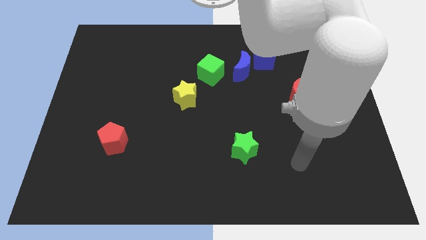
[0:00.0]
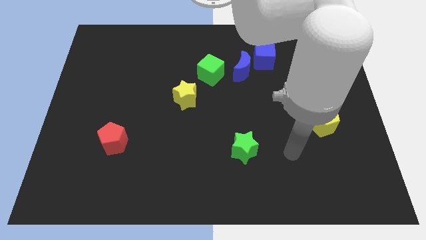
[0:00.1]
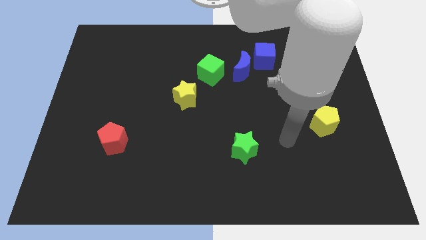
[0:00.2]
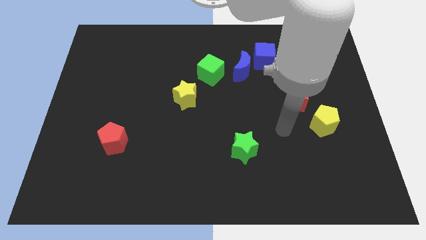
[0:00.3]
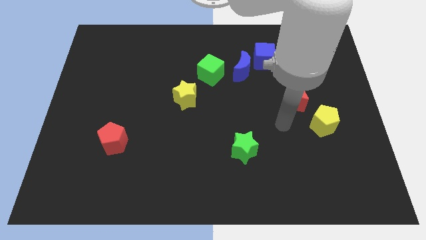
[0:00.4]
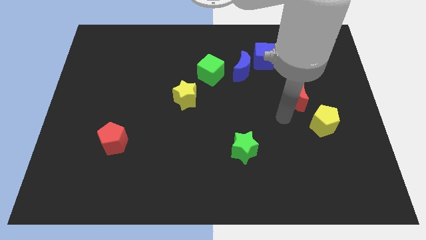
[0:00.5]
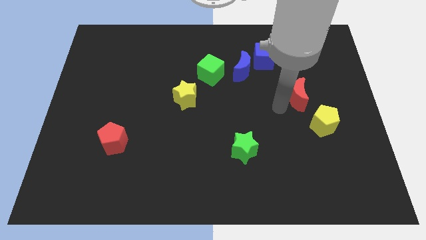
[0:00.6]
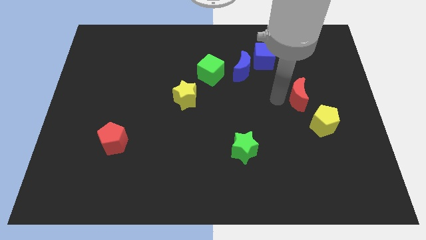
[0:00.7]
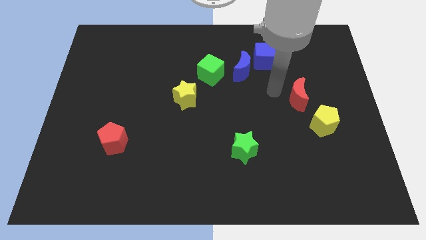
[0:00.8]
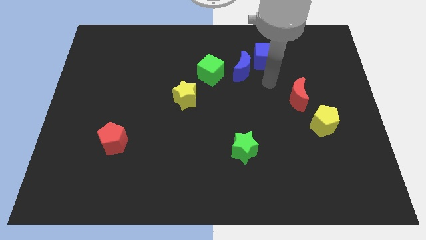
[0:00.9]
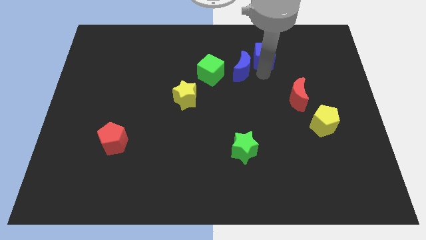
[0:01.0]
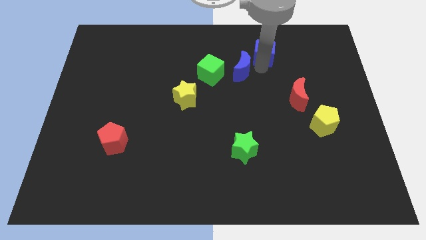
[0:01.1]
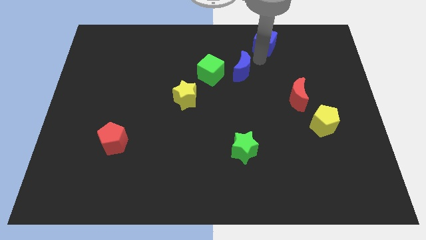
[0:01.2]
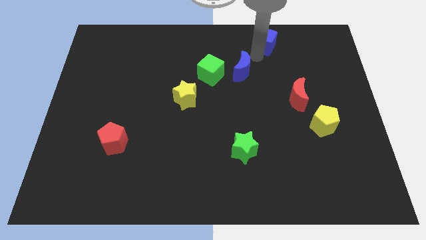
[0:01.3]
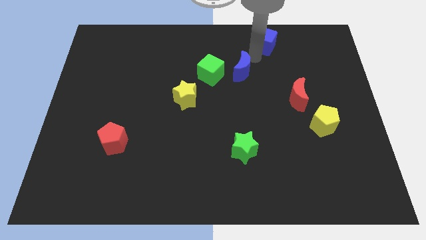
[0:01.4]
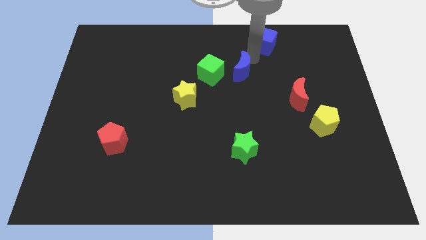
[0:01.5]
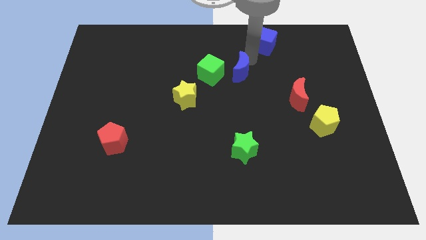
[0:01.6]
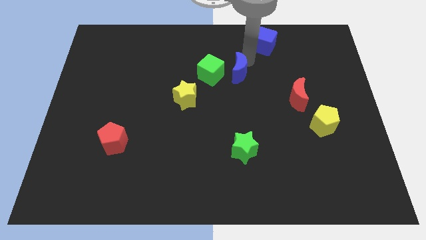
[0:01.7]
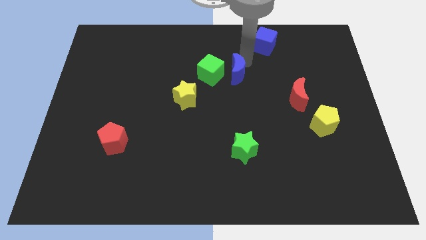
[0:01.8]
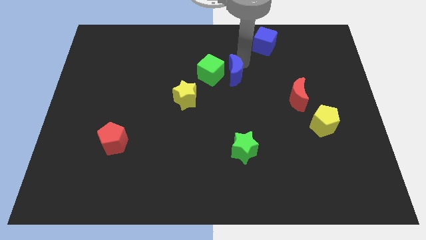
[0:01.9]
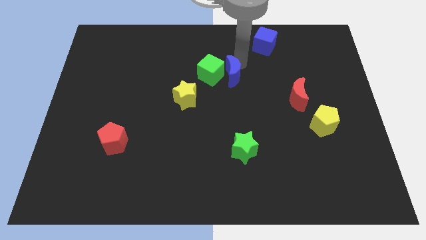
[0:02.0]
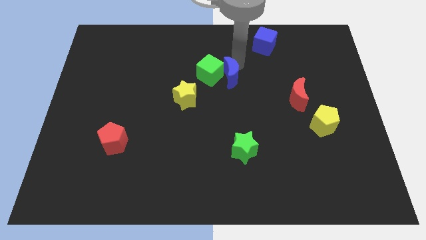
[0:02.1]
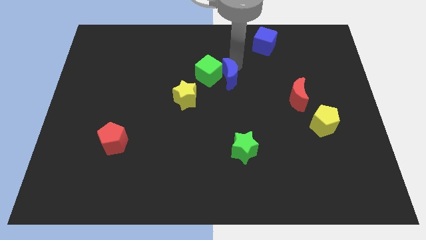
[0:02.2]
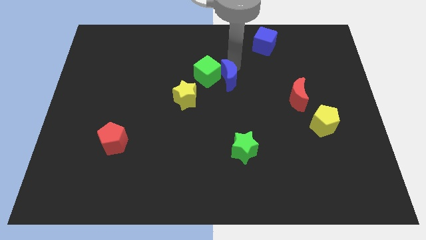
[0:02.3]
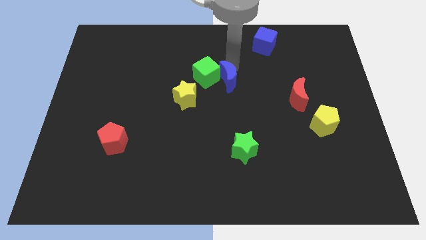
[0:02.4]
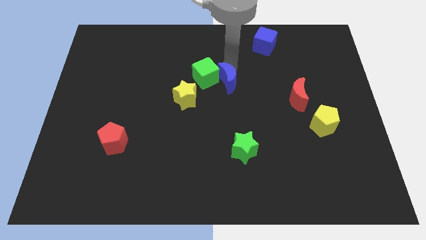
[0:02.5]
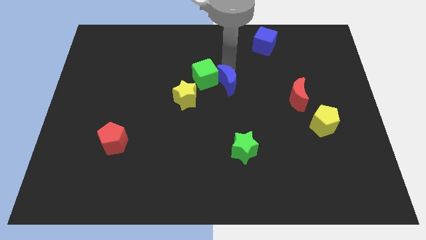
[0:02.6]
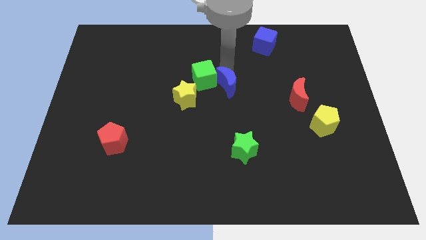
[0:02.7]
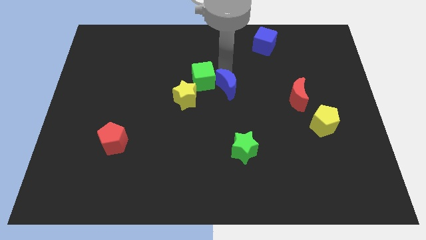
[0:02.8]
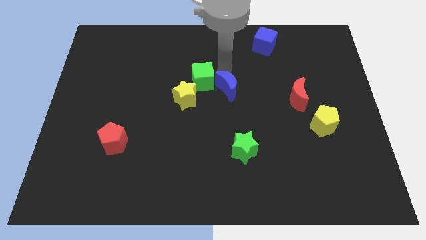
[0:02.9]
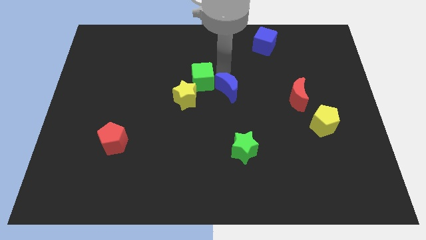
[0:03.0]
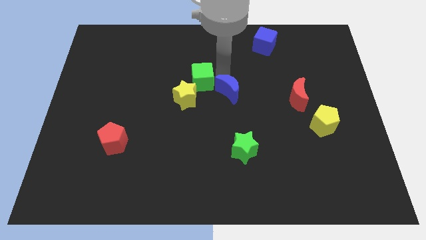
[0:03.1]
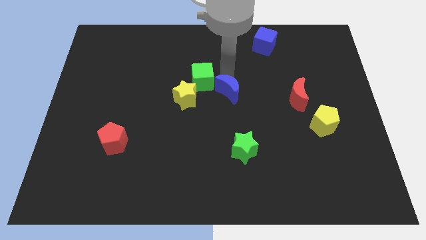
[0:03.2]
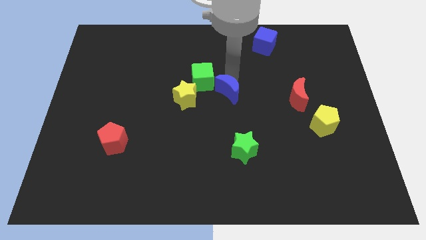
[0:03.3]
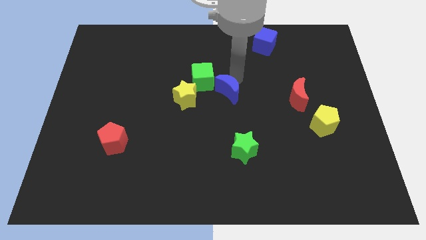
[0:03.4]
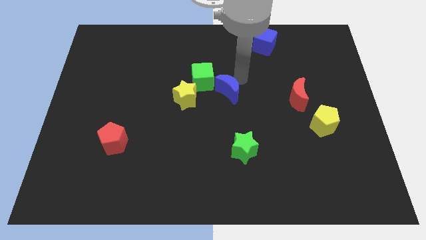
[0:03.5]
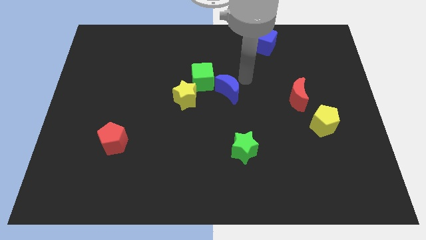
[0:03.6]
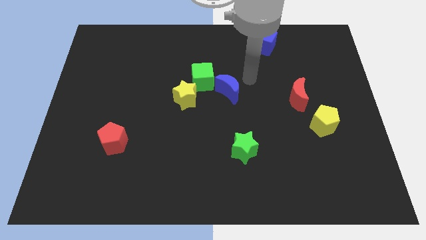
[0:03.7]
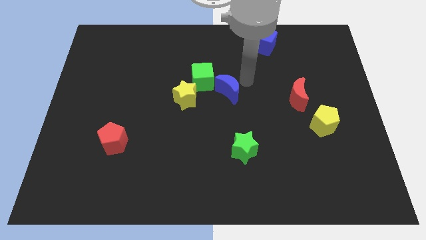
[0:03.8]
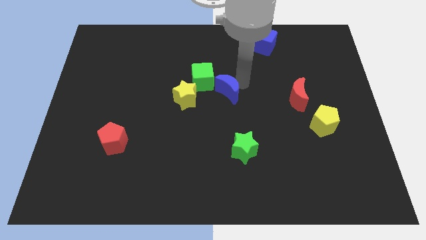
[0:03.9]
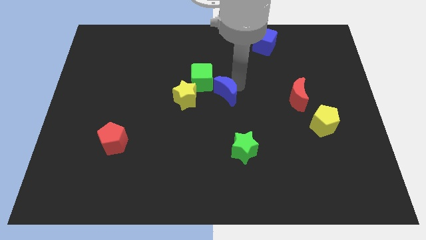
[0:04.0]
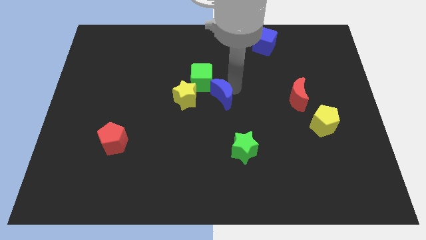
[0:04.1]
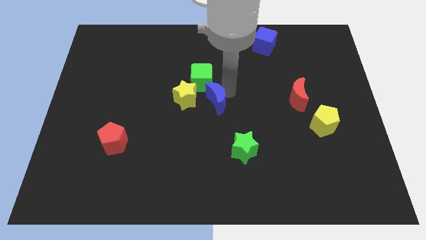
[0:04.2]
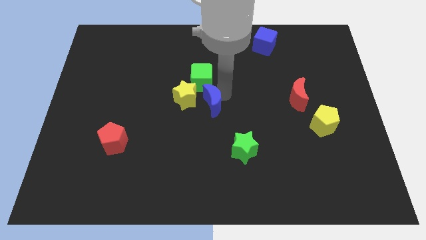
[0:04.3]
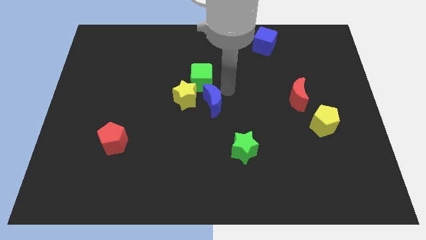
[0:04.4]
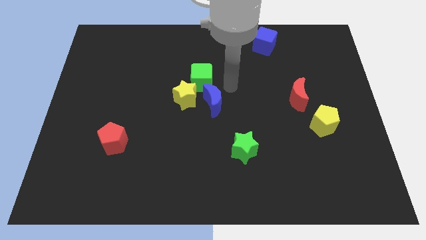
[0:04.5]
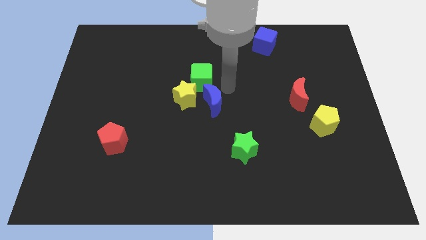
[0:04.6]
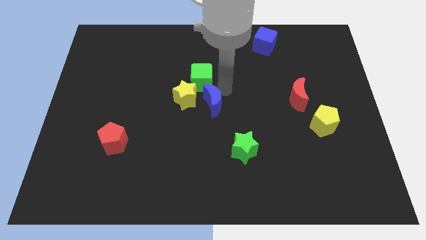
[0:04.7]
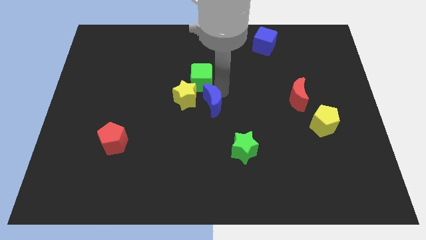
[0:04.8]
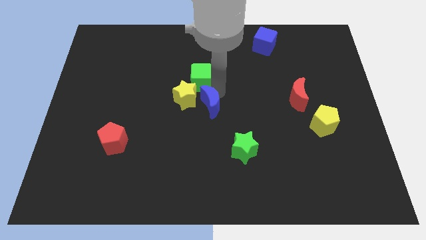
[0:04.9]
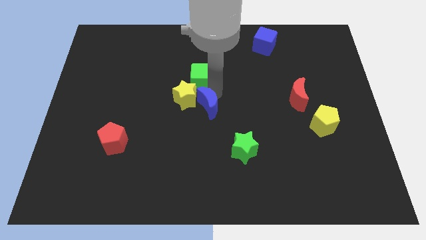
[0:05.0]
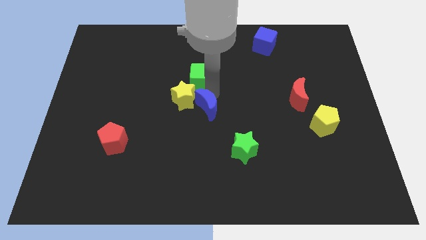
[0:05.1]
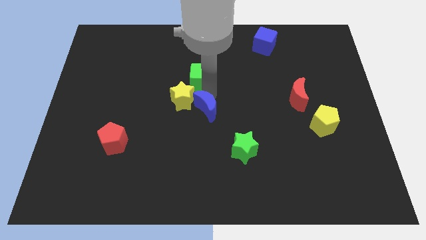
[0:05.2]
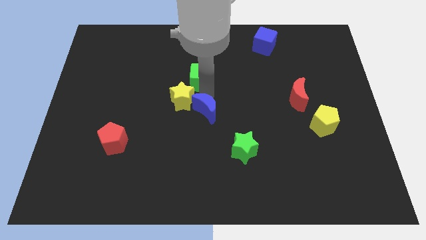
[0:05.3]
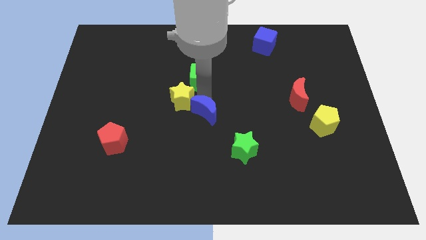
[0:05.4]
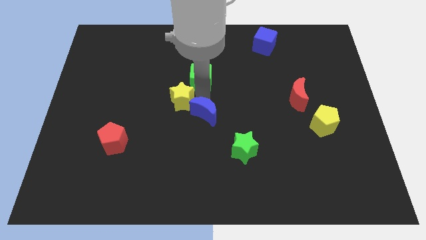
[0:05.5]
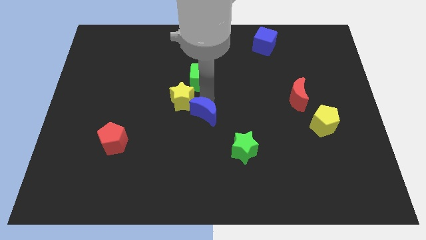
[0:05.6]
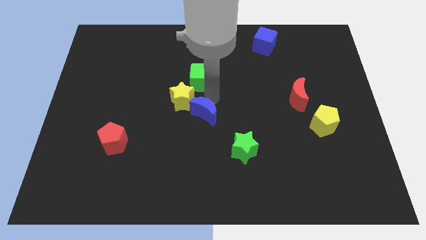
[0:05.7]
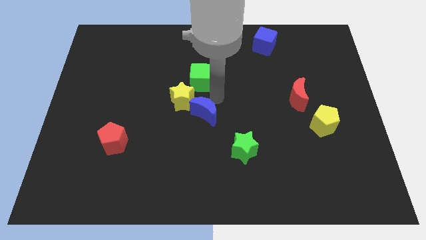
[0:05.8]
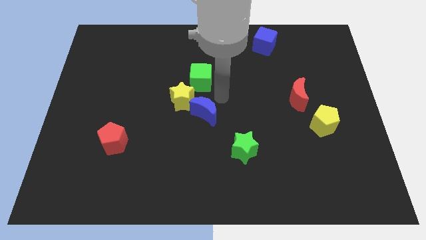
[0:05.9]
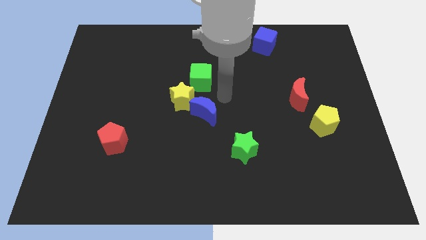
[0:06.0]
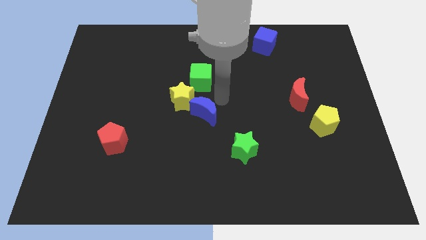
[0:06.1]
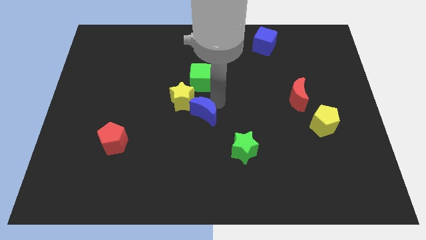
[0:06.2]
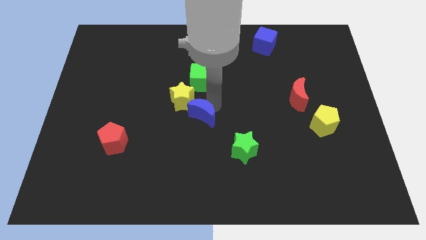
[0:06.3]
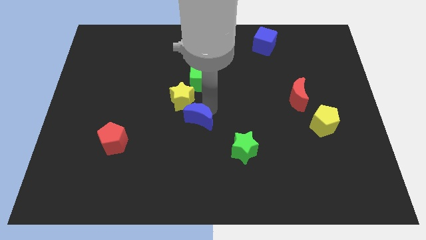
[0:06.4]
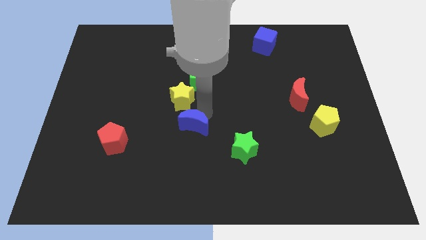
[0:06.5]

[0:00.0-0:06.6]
move the blue moon down and to the left

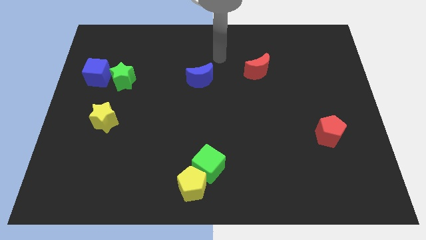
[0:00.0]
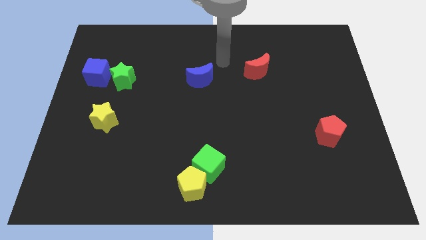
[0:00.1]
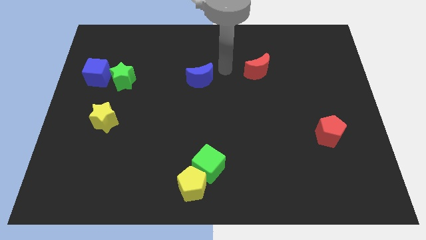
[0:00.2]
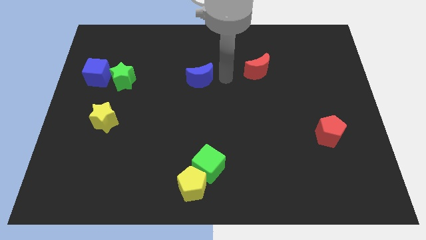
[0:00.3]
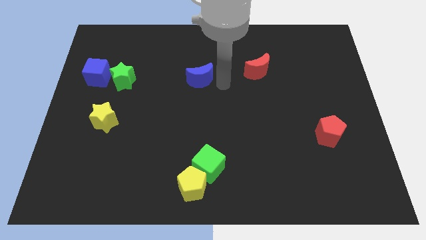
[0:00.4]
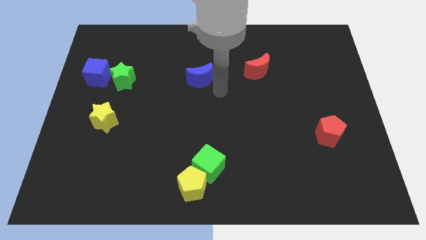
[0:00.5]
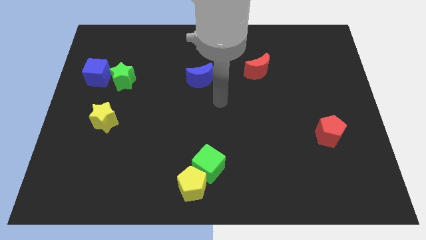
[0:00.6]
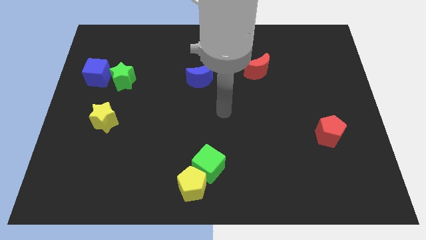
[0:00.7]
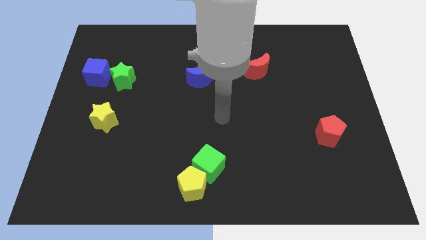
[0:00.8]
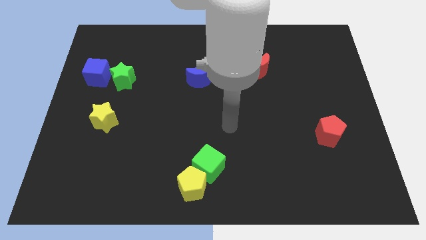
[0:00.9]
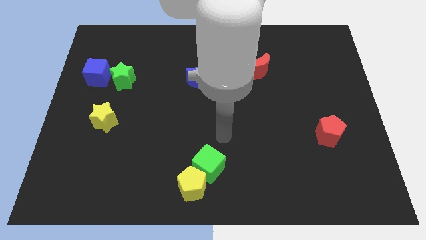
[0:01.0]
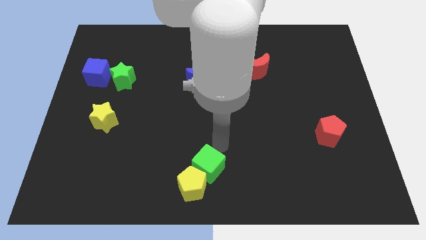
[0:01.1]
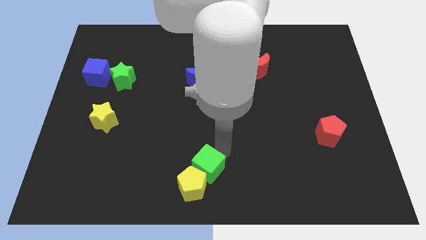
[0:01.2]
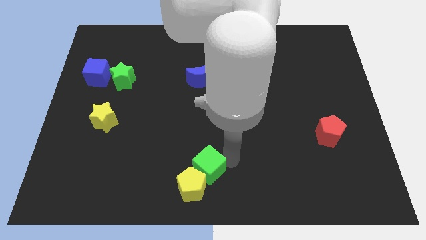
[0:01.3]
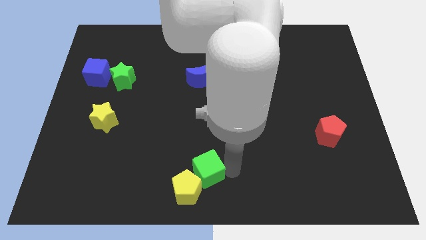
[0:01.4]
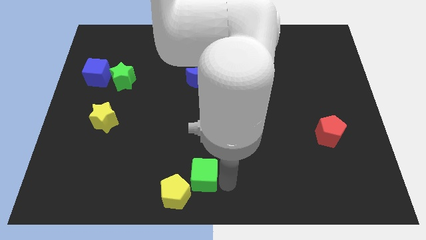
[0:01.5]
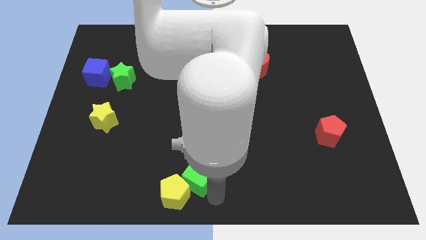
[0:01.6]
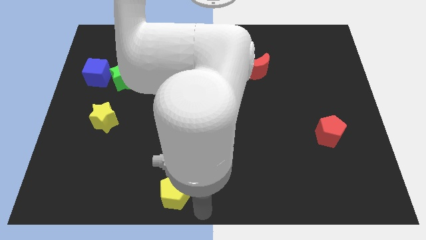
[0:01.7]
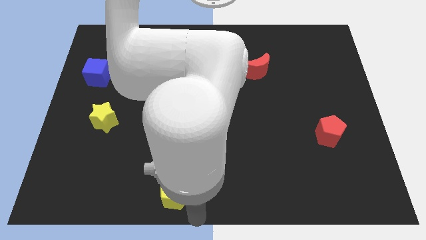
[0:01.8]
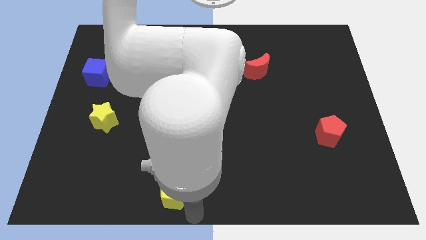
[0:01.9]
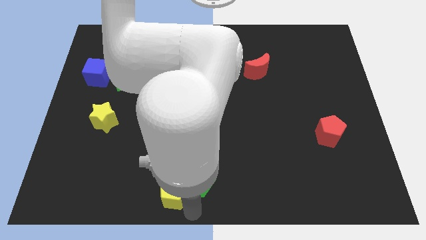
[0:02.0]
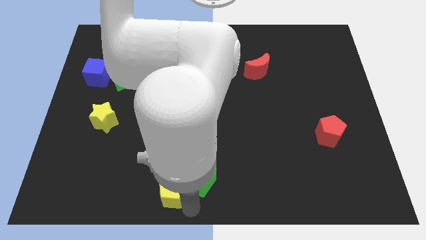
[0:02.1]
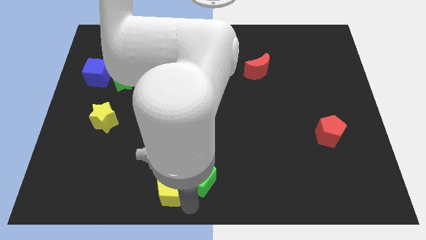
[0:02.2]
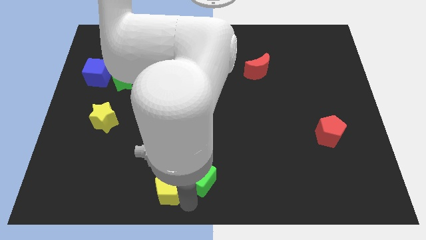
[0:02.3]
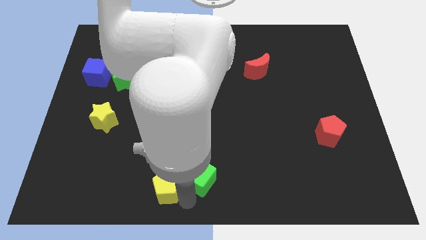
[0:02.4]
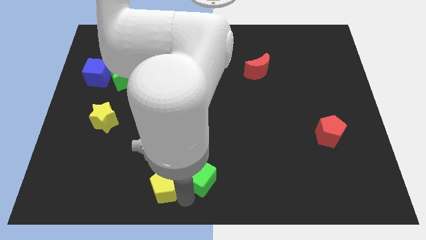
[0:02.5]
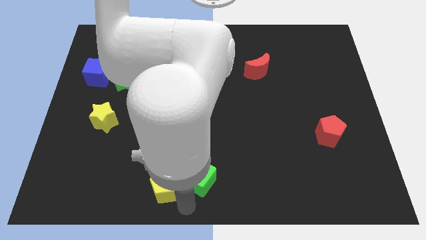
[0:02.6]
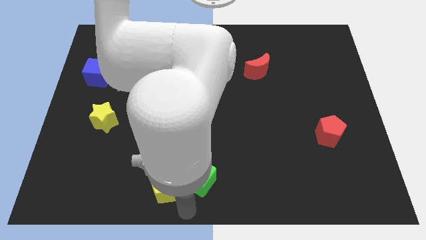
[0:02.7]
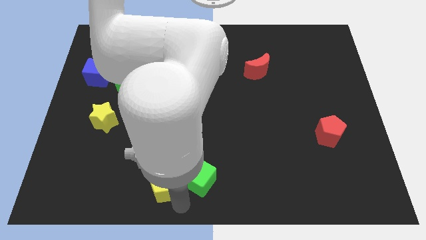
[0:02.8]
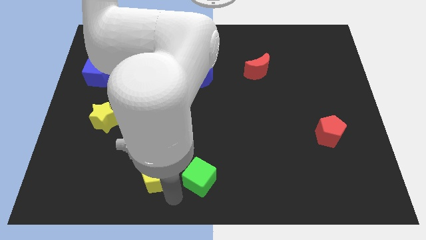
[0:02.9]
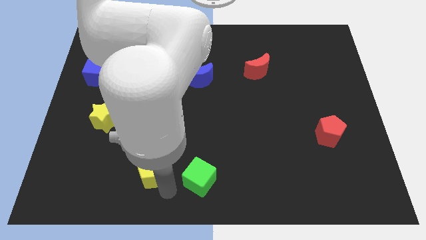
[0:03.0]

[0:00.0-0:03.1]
slightly slide the yellow pentagon upwards and then to the left
